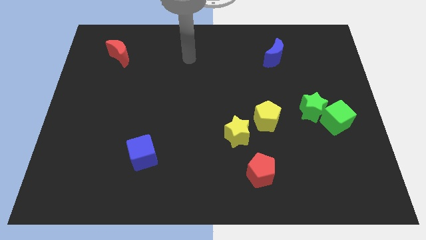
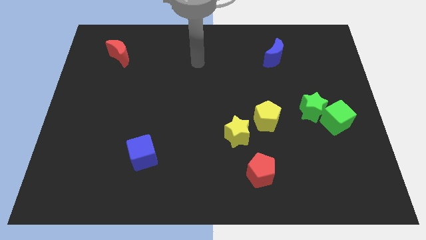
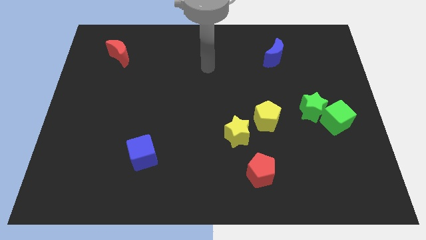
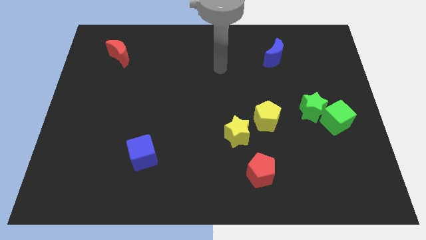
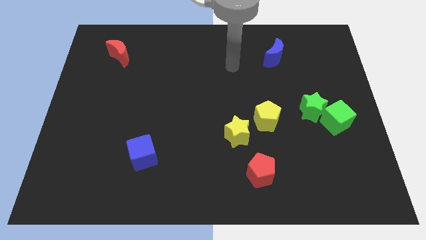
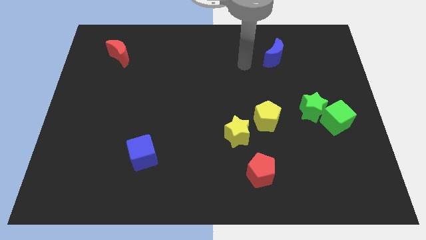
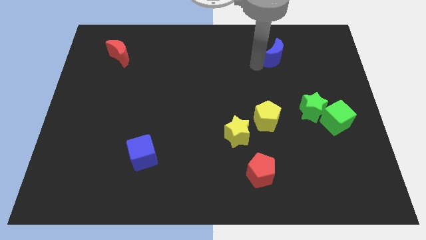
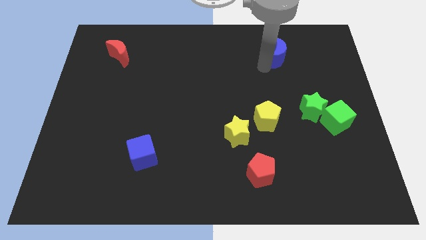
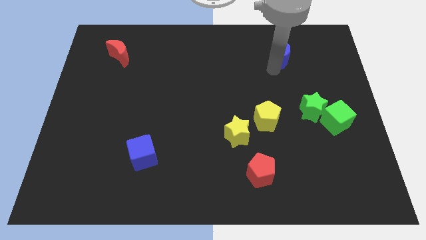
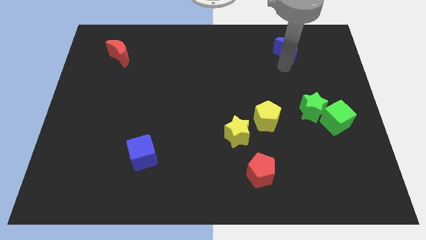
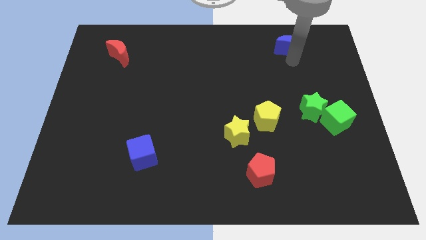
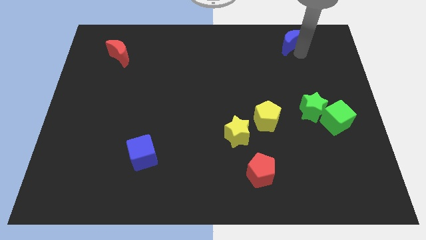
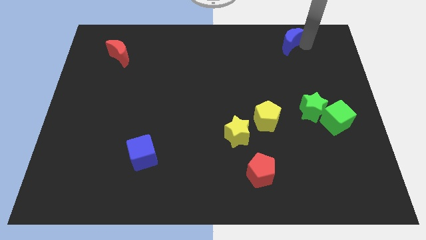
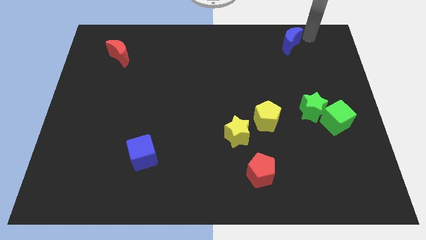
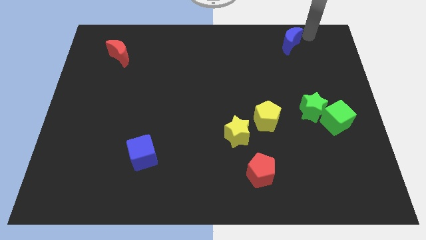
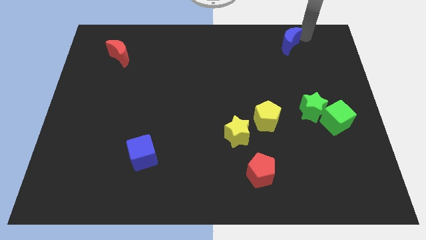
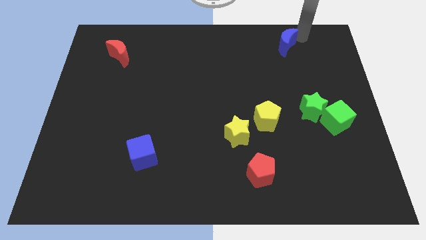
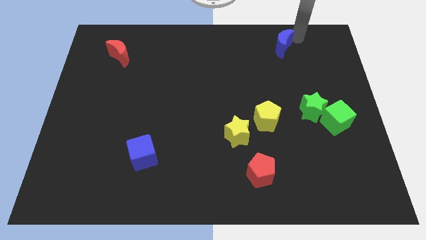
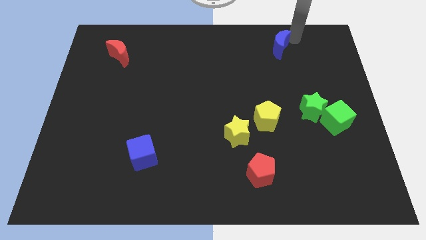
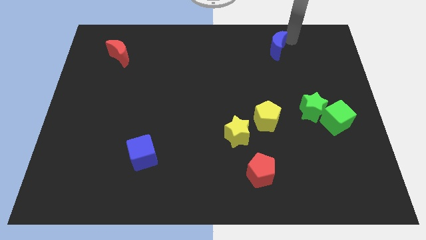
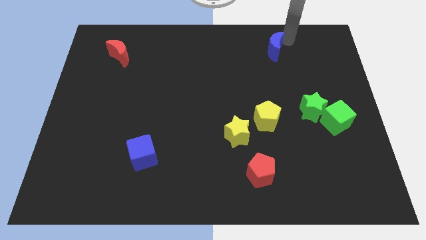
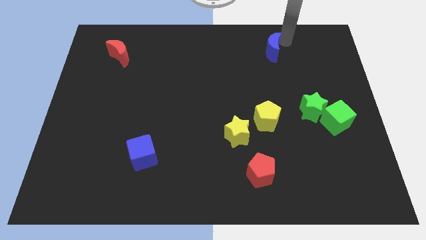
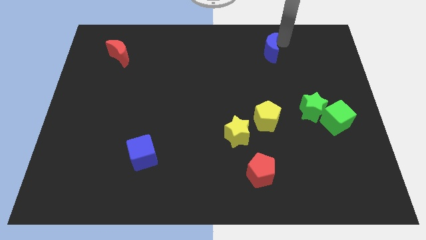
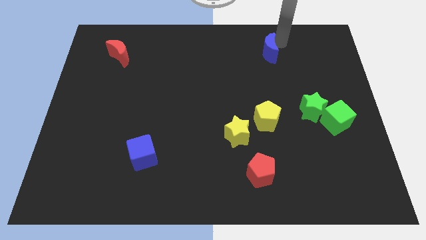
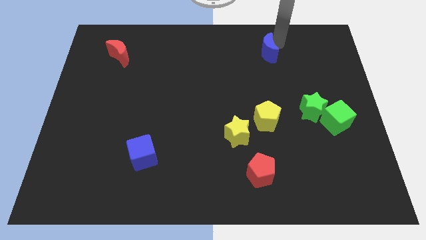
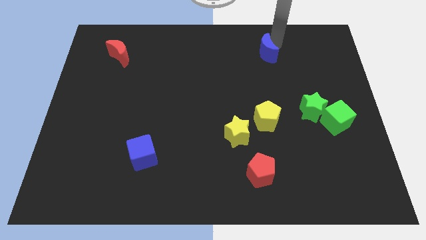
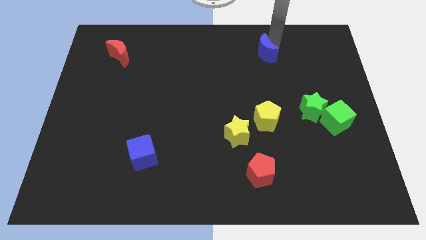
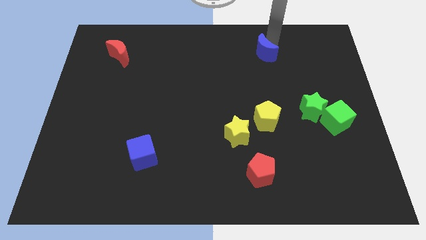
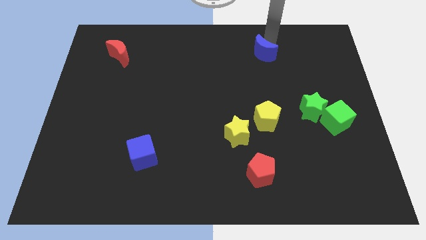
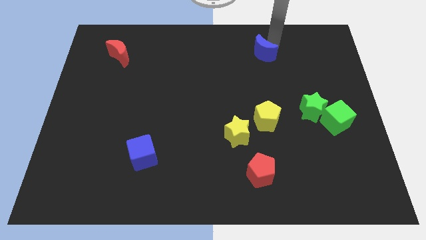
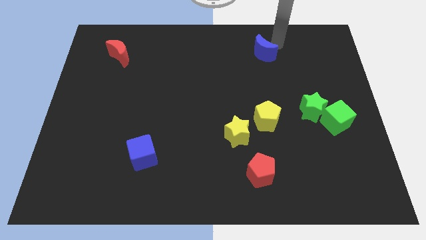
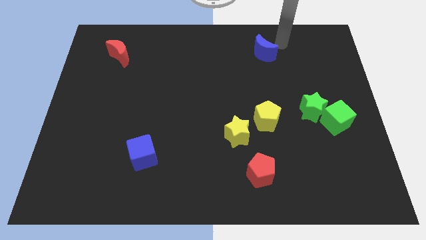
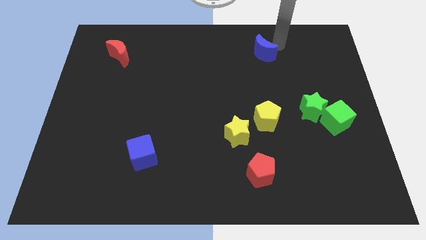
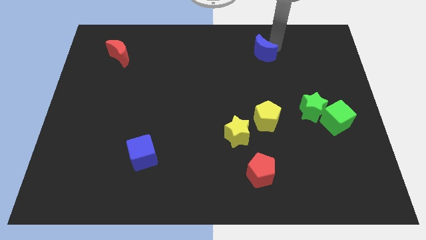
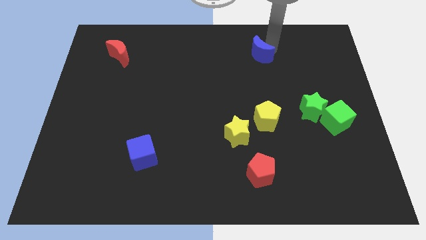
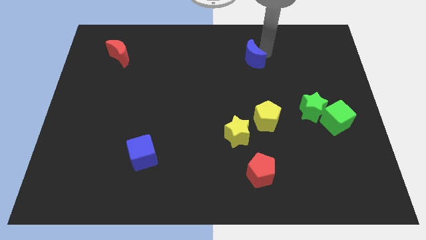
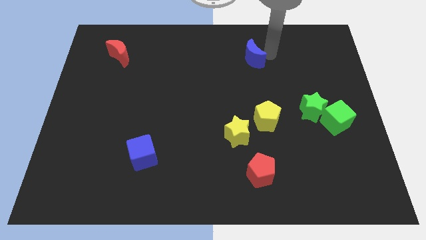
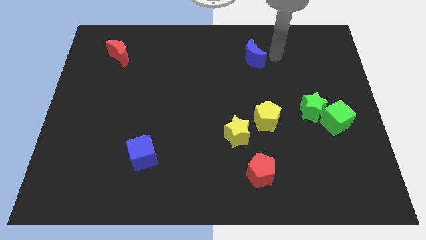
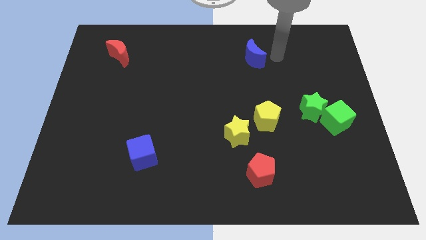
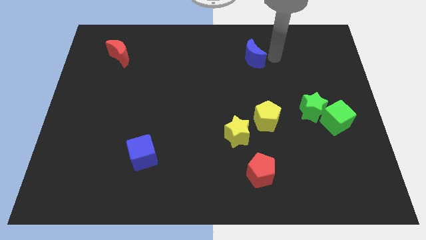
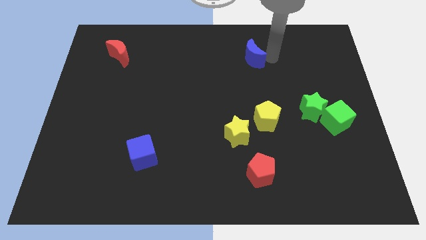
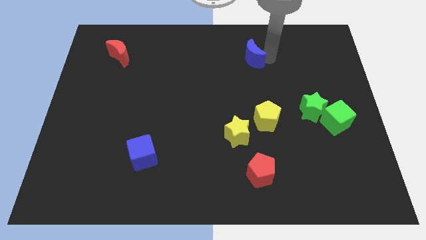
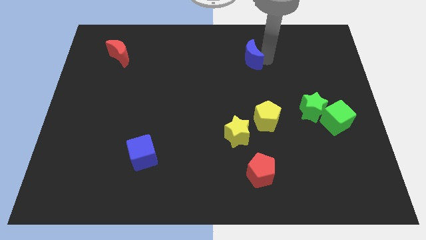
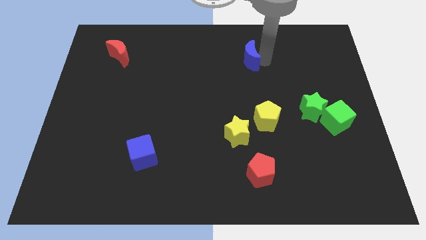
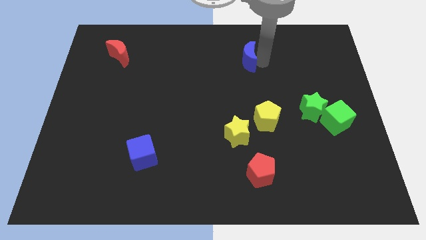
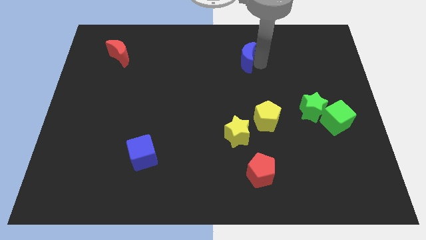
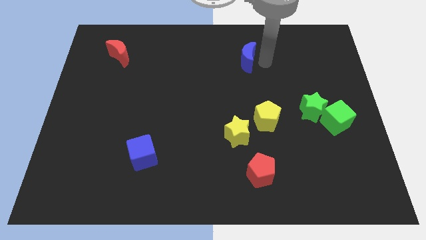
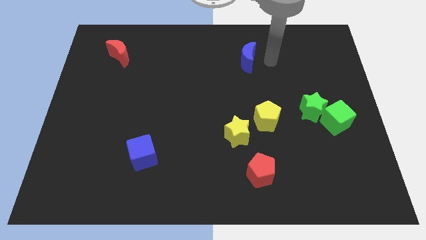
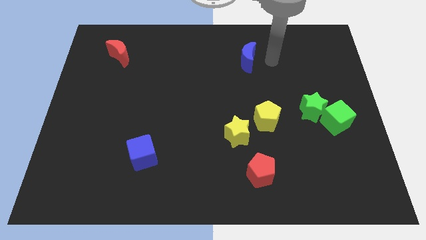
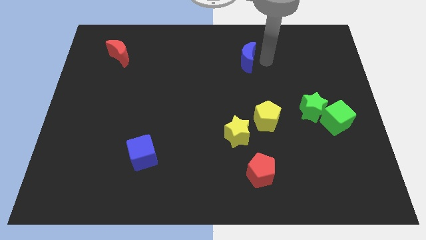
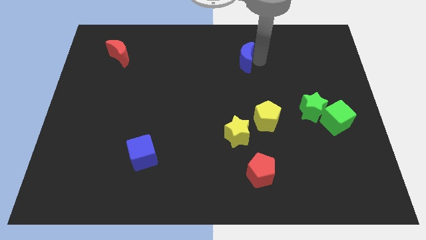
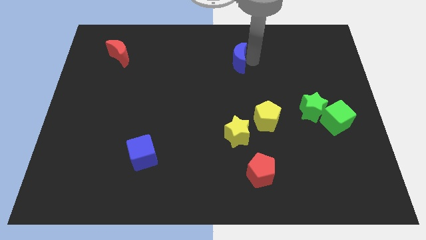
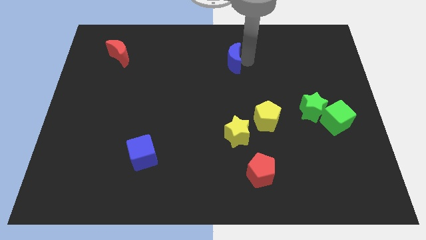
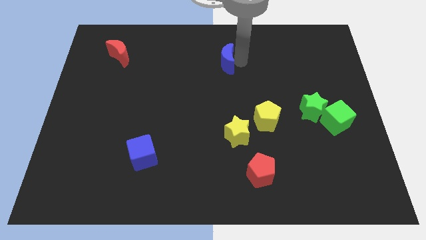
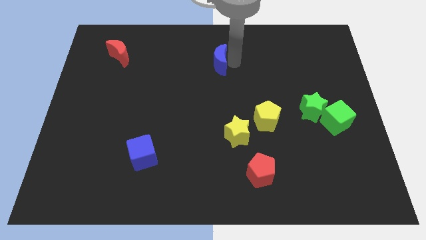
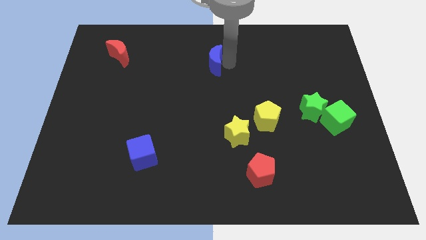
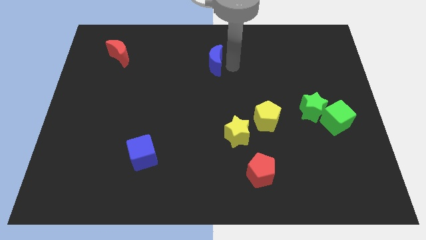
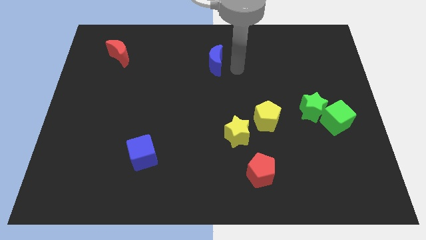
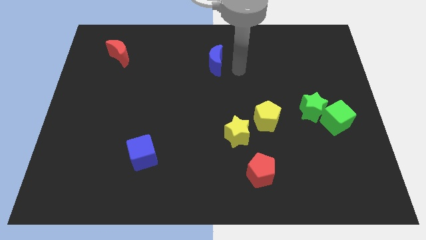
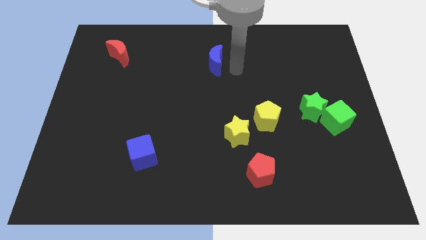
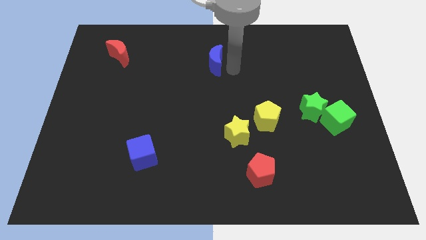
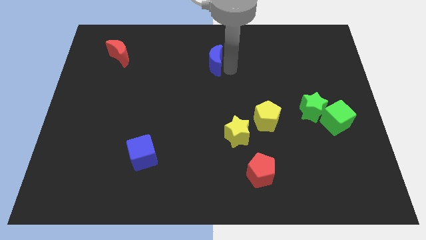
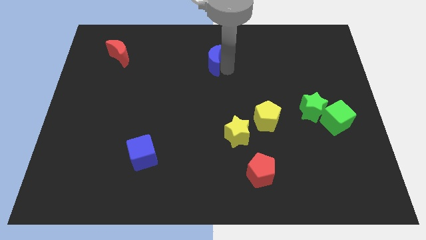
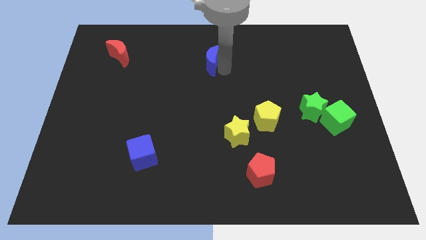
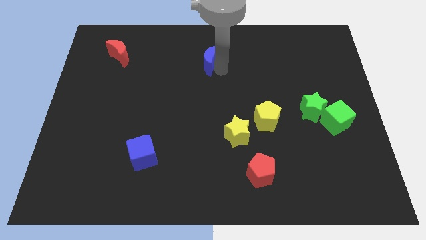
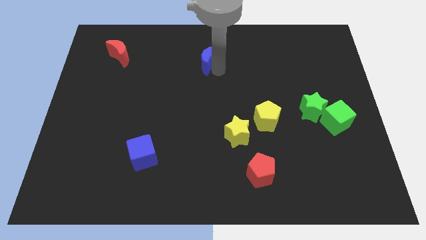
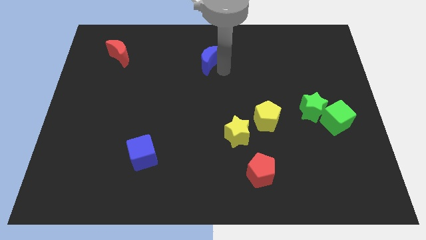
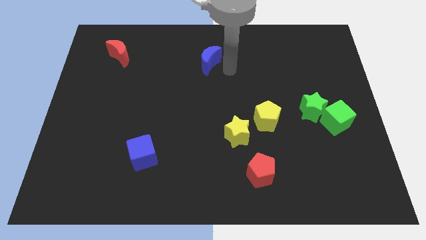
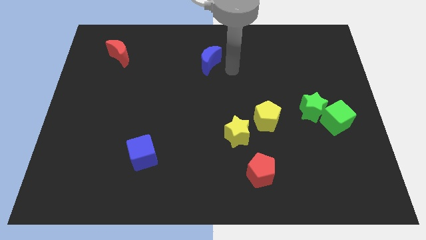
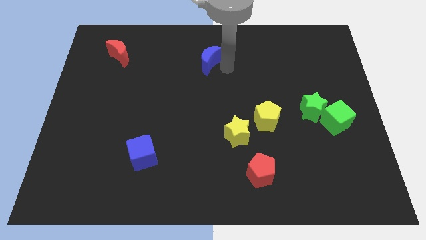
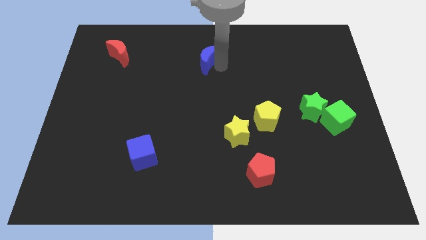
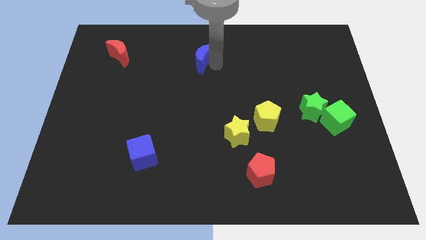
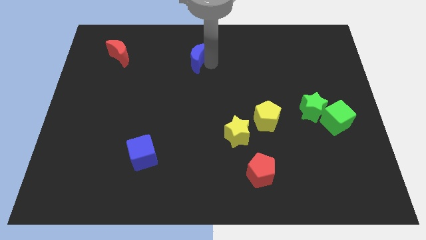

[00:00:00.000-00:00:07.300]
slide the blue moon left

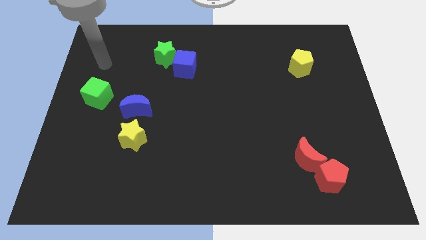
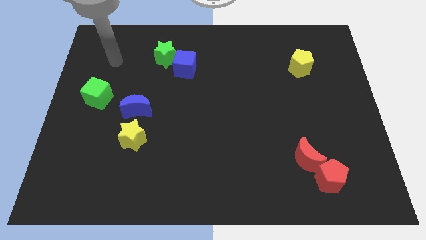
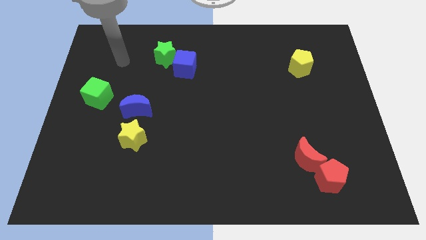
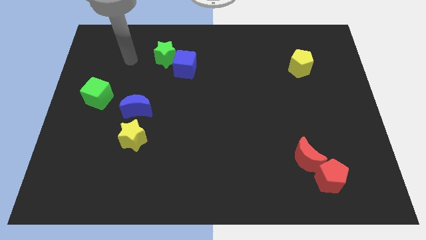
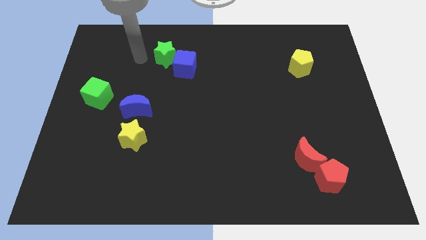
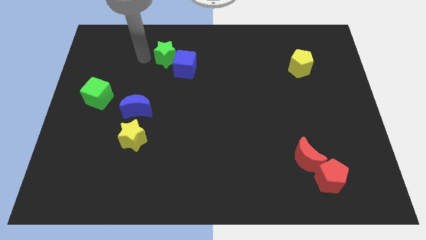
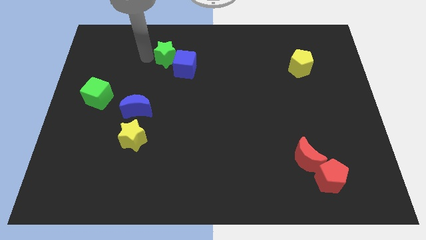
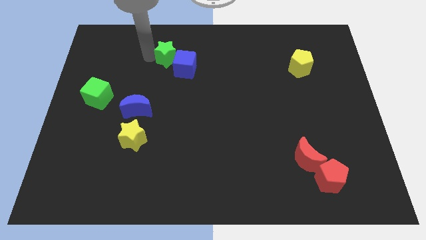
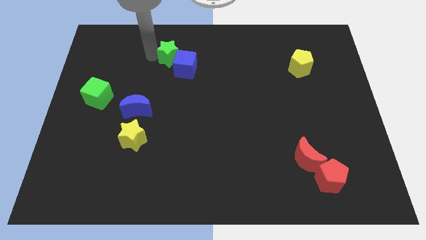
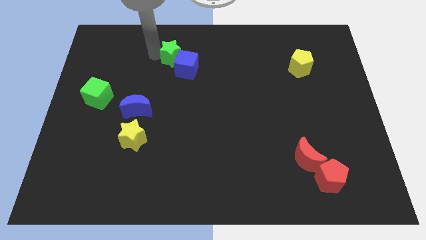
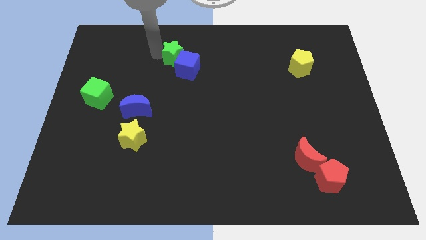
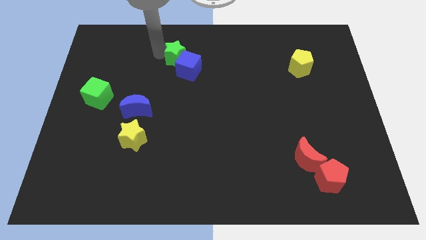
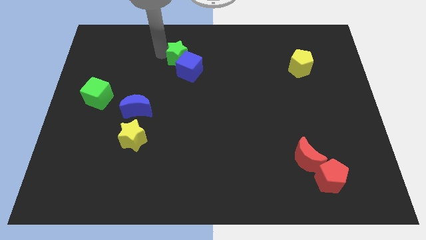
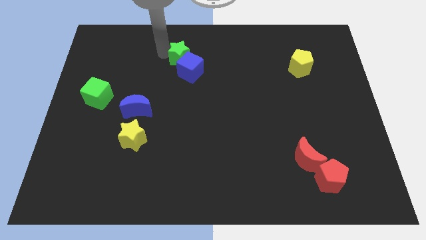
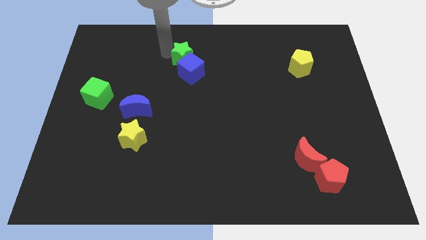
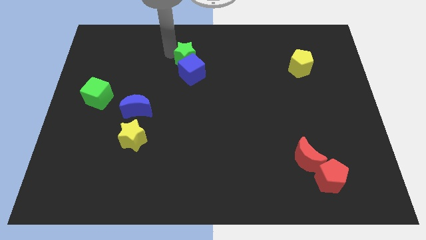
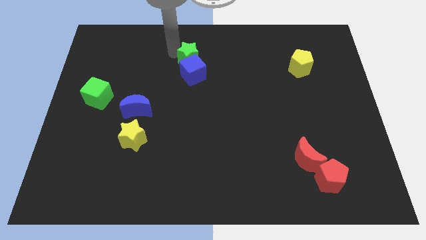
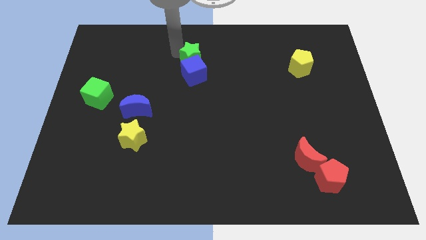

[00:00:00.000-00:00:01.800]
slide the green star right a little

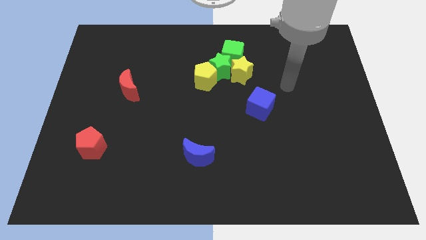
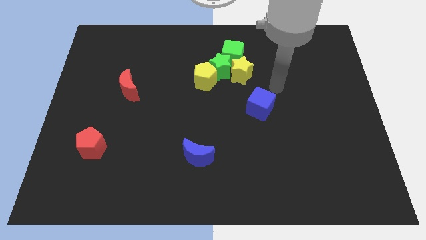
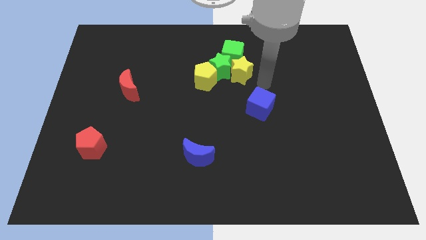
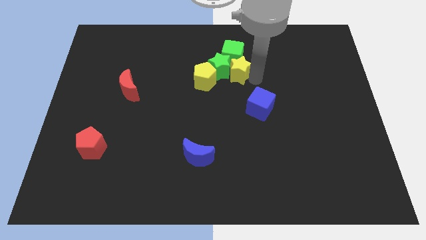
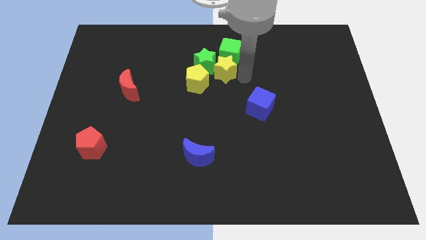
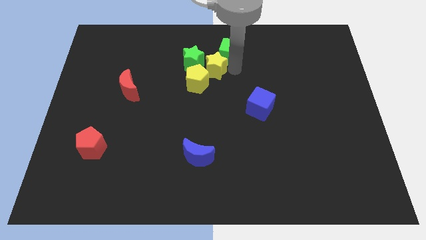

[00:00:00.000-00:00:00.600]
slightly move the green star left
